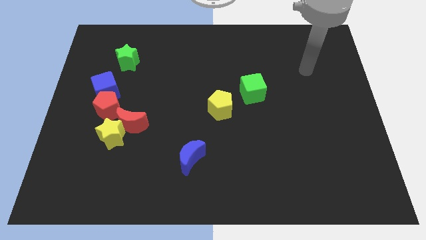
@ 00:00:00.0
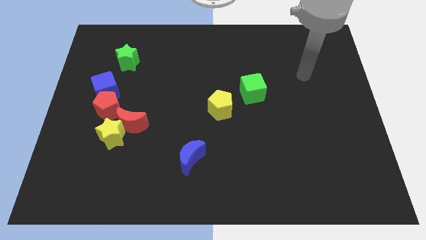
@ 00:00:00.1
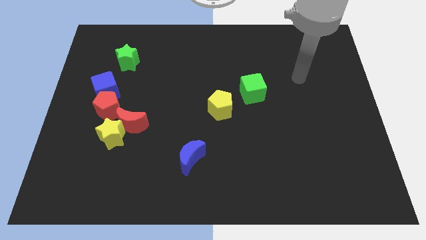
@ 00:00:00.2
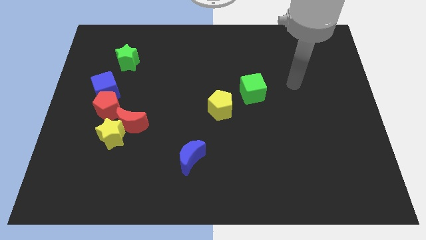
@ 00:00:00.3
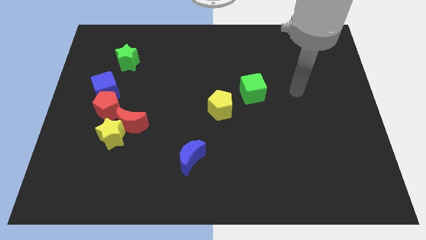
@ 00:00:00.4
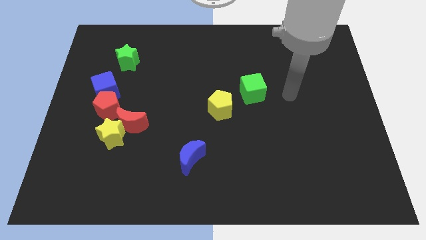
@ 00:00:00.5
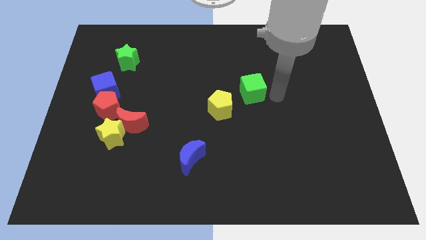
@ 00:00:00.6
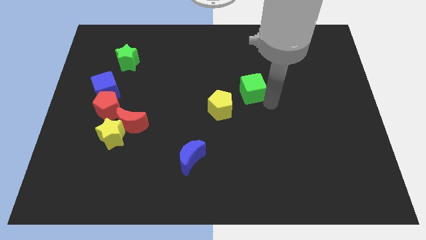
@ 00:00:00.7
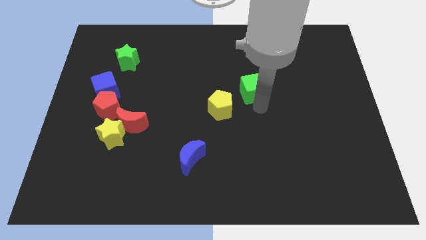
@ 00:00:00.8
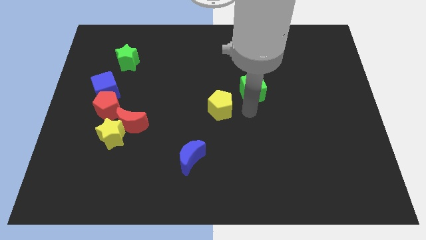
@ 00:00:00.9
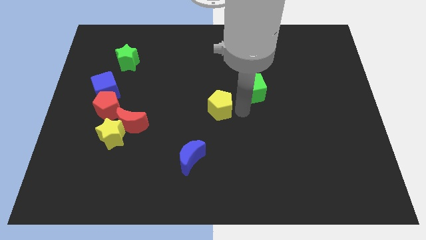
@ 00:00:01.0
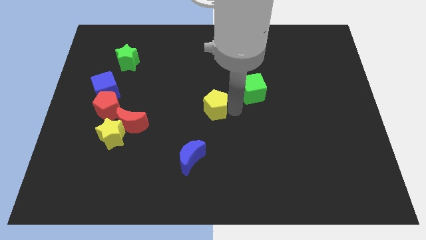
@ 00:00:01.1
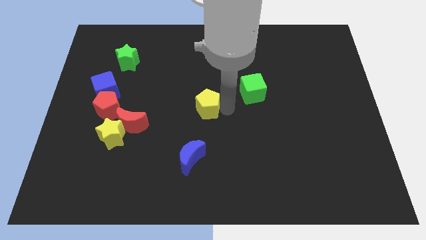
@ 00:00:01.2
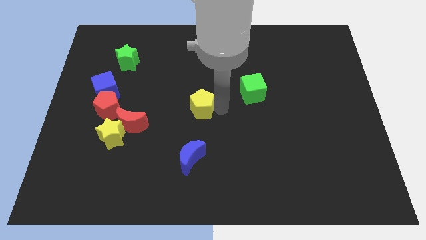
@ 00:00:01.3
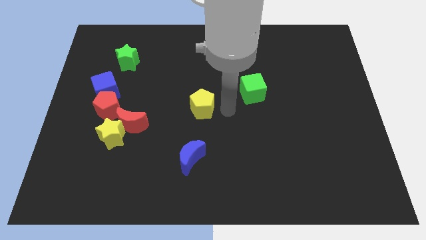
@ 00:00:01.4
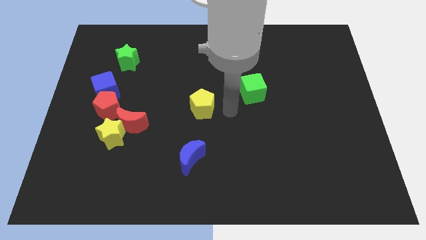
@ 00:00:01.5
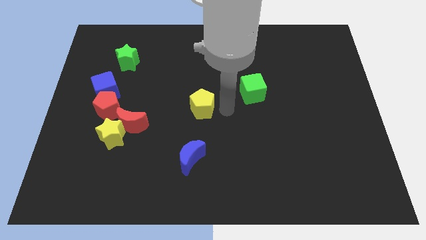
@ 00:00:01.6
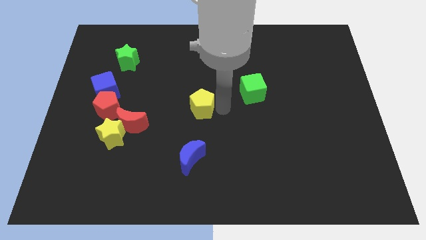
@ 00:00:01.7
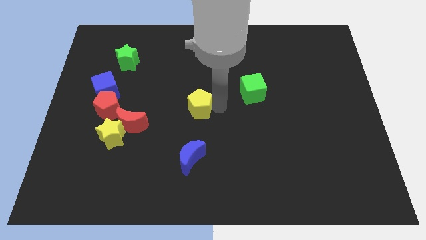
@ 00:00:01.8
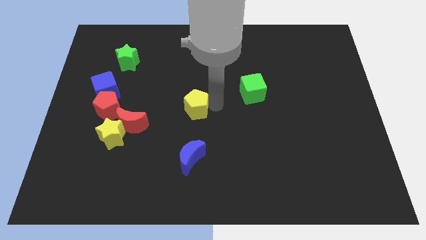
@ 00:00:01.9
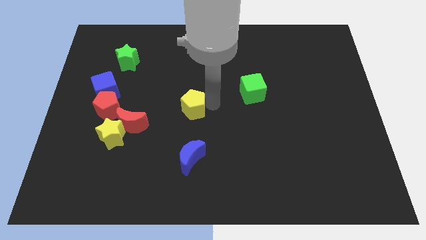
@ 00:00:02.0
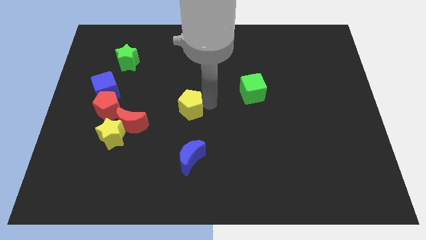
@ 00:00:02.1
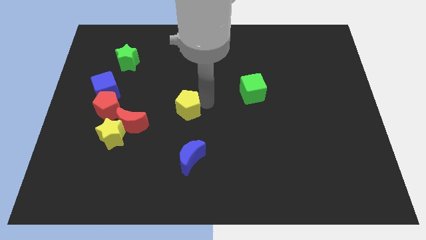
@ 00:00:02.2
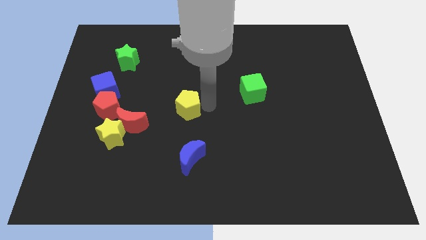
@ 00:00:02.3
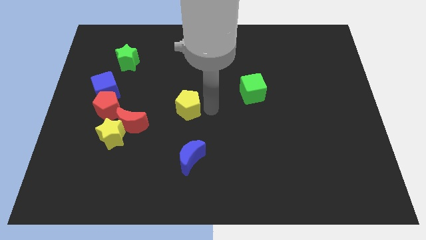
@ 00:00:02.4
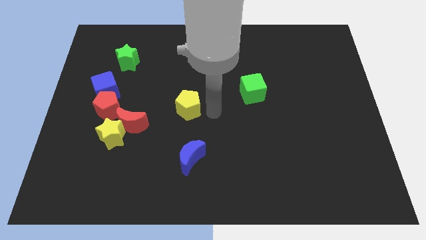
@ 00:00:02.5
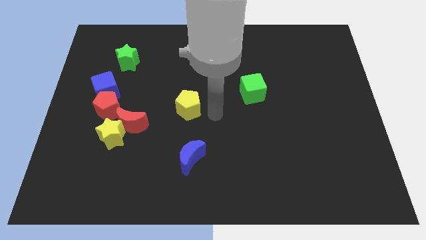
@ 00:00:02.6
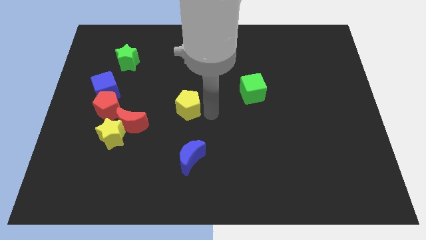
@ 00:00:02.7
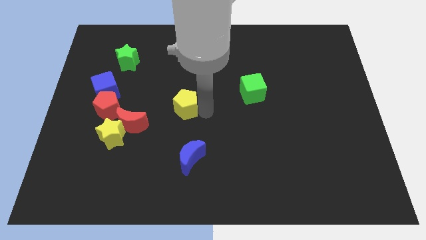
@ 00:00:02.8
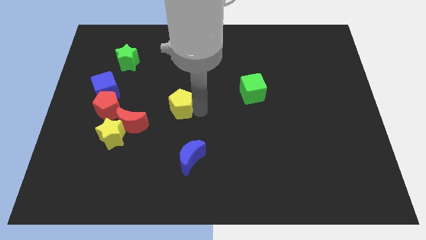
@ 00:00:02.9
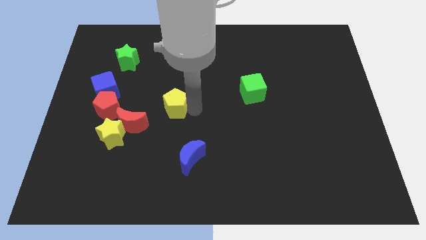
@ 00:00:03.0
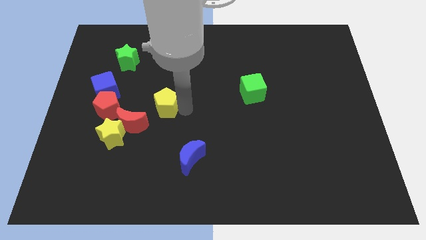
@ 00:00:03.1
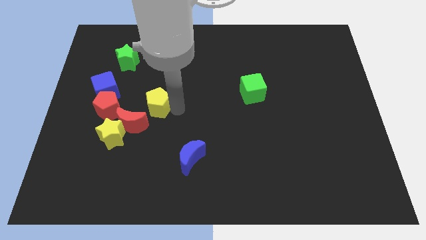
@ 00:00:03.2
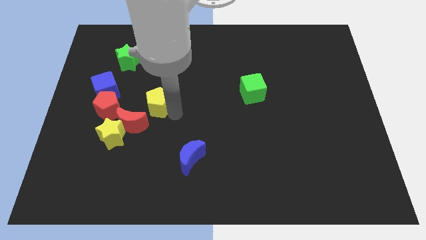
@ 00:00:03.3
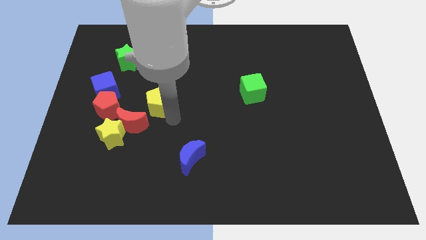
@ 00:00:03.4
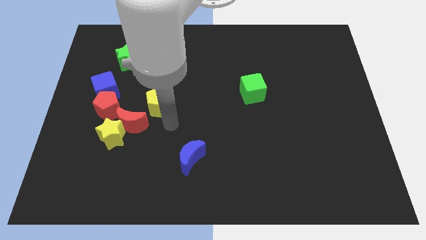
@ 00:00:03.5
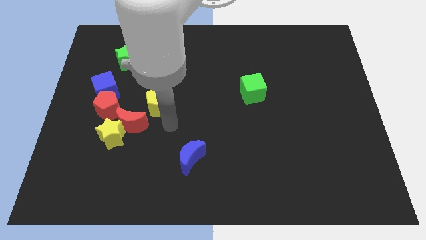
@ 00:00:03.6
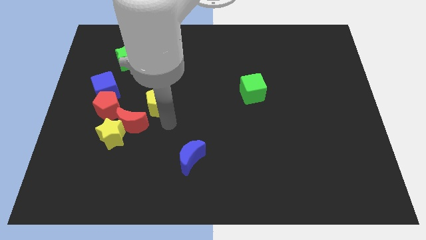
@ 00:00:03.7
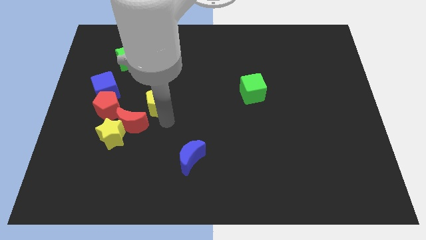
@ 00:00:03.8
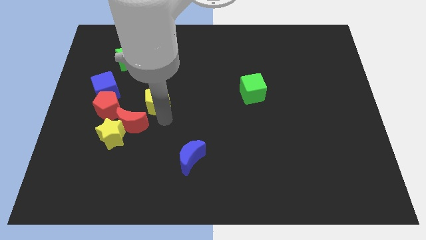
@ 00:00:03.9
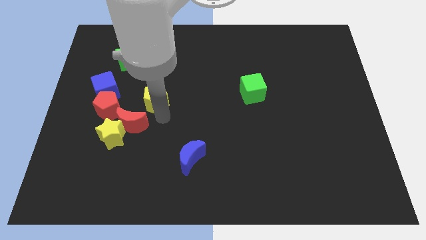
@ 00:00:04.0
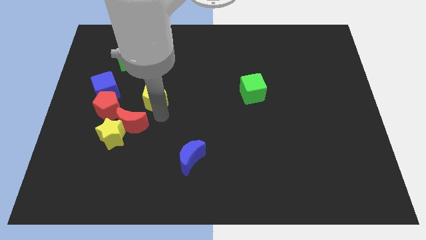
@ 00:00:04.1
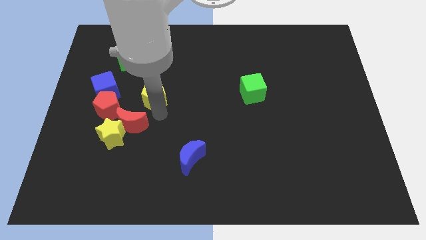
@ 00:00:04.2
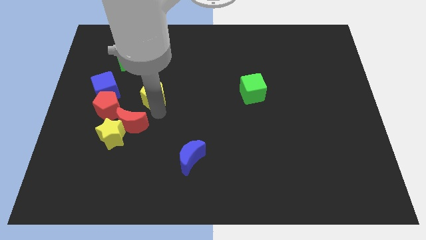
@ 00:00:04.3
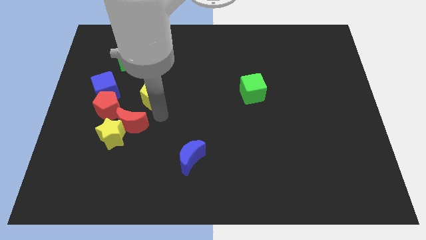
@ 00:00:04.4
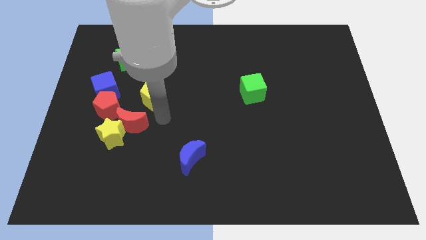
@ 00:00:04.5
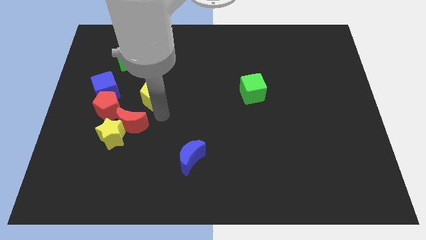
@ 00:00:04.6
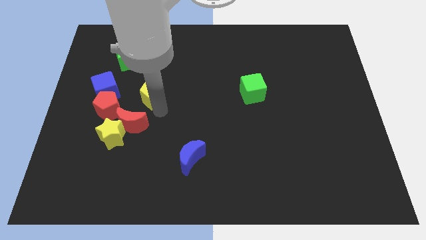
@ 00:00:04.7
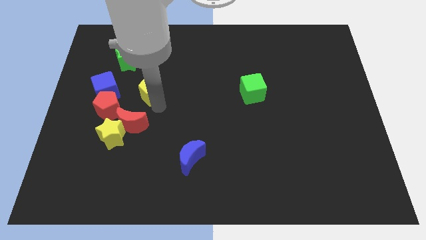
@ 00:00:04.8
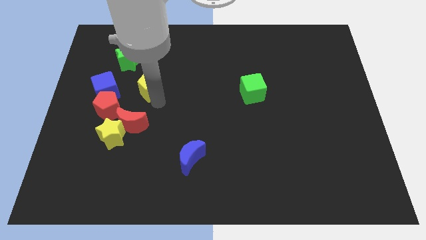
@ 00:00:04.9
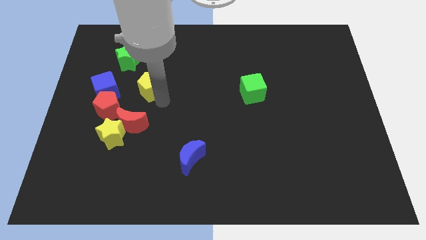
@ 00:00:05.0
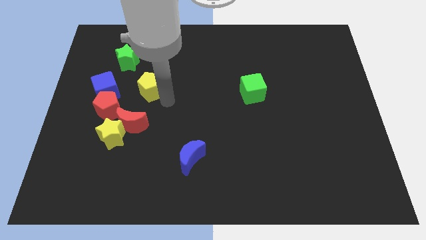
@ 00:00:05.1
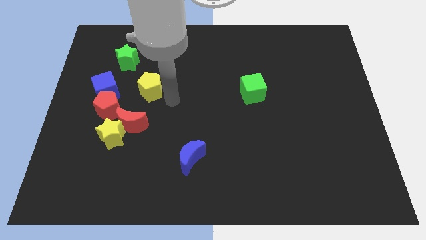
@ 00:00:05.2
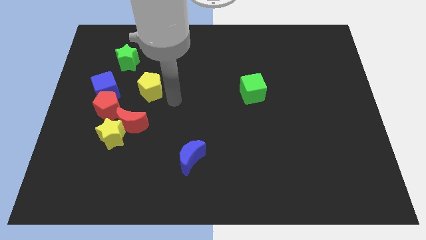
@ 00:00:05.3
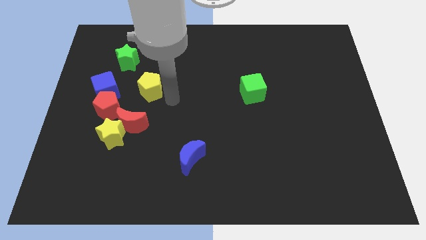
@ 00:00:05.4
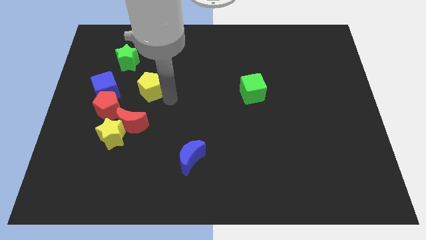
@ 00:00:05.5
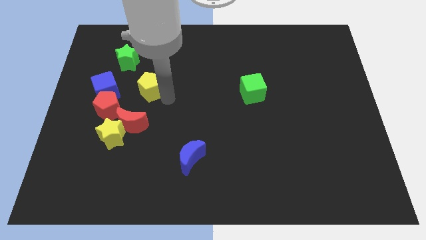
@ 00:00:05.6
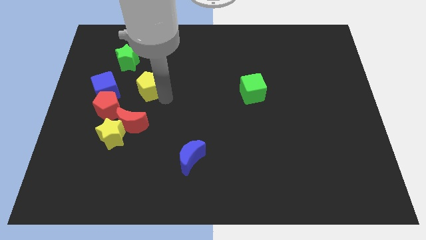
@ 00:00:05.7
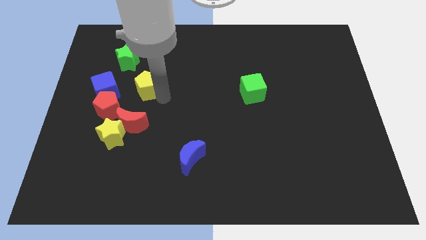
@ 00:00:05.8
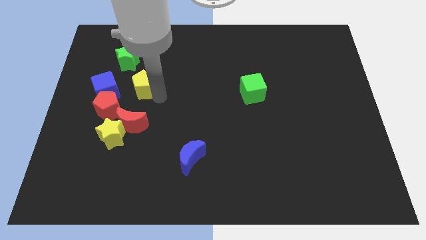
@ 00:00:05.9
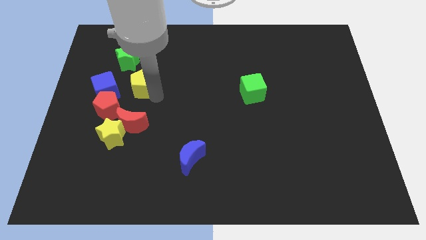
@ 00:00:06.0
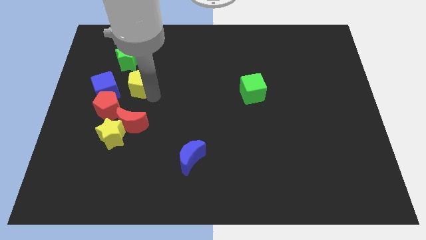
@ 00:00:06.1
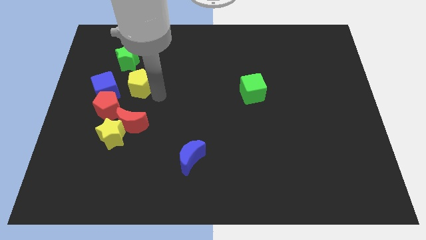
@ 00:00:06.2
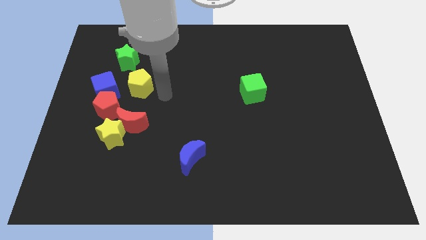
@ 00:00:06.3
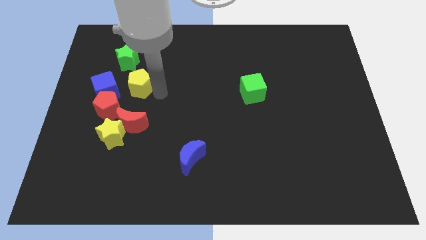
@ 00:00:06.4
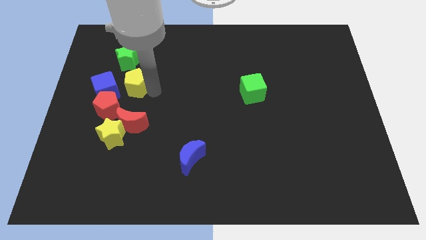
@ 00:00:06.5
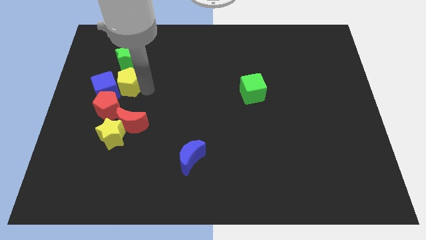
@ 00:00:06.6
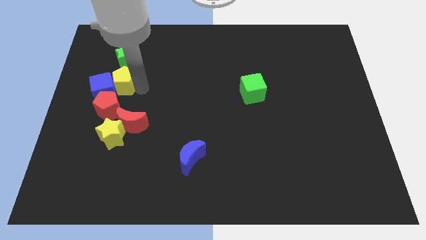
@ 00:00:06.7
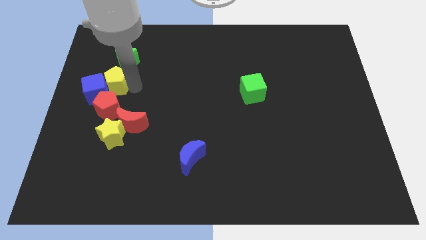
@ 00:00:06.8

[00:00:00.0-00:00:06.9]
push the yellow pentagon to the bottom left side of the green star
